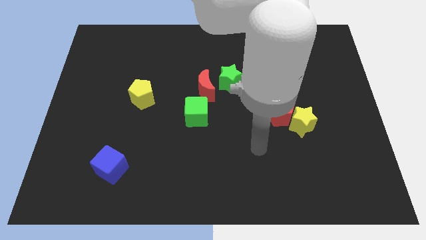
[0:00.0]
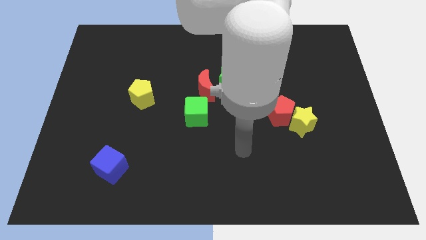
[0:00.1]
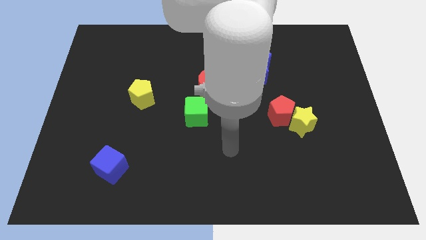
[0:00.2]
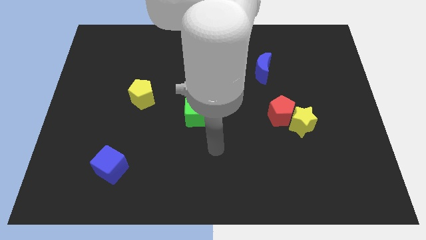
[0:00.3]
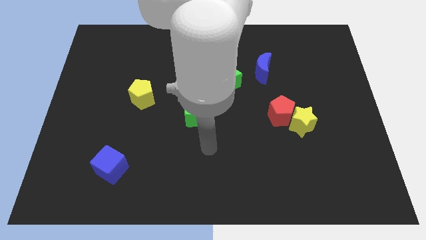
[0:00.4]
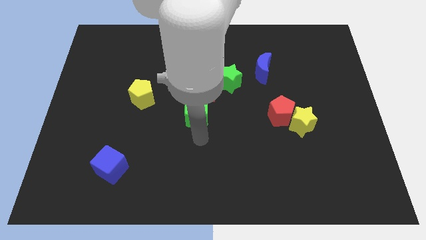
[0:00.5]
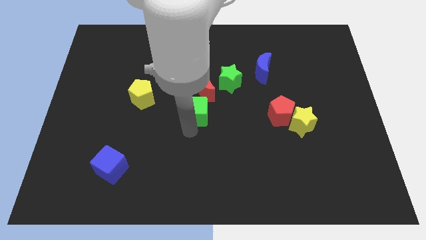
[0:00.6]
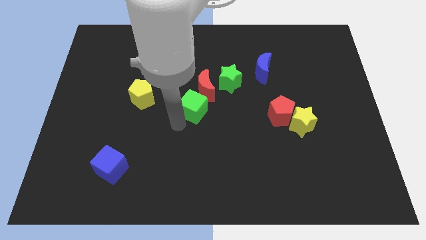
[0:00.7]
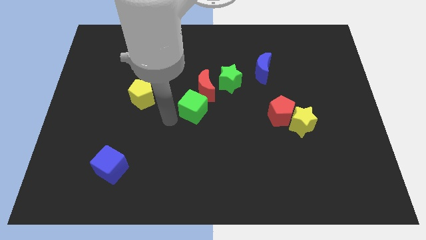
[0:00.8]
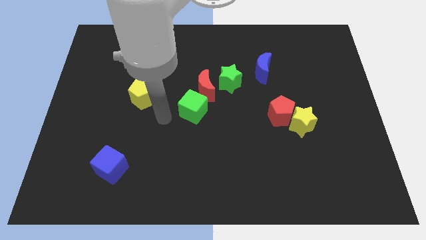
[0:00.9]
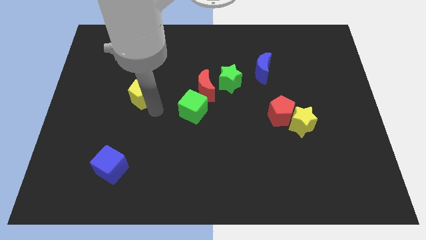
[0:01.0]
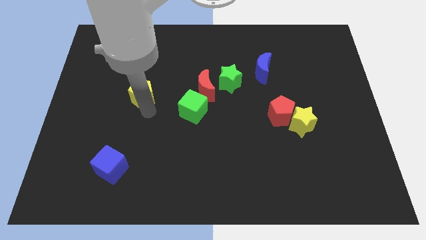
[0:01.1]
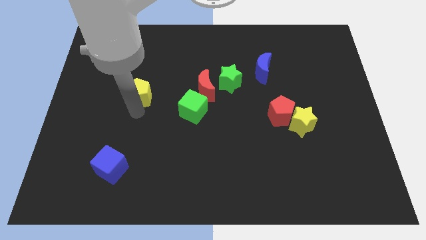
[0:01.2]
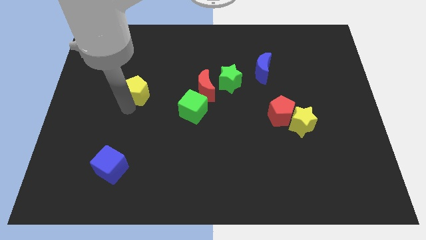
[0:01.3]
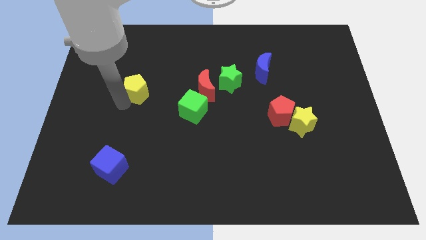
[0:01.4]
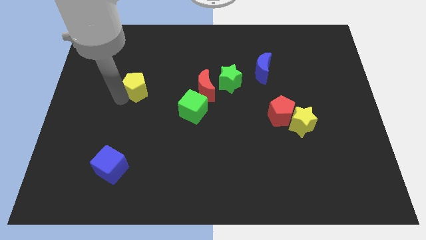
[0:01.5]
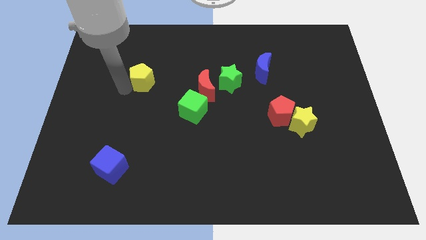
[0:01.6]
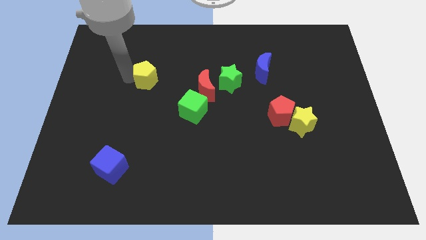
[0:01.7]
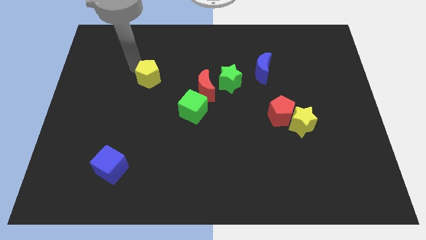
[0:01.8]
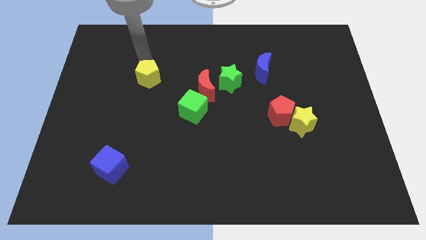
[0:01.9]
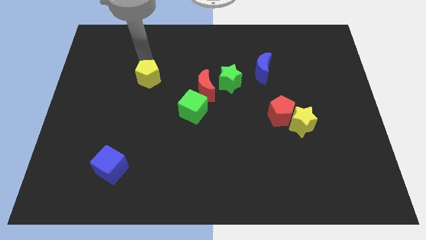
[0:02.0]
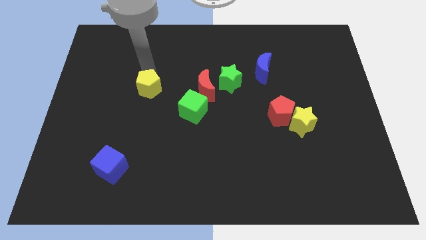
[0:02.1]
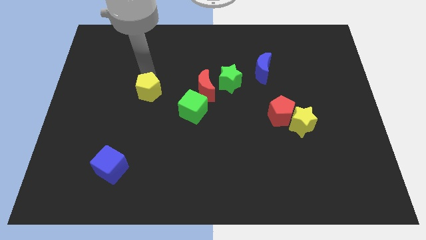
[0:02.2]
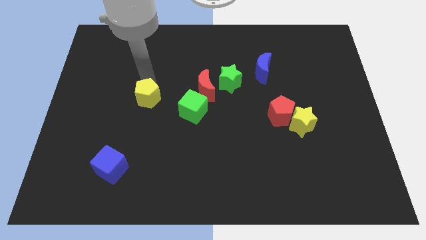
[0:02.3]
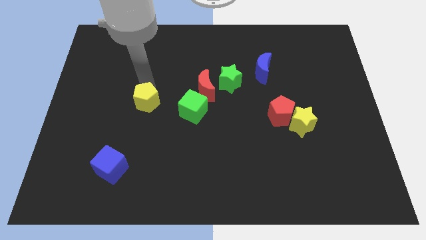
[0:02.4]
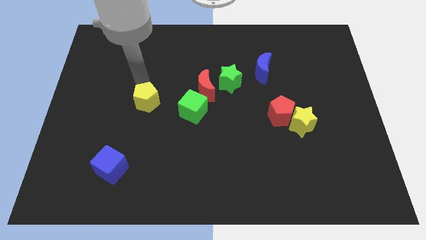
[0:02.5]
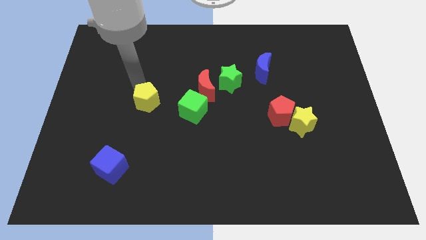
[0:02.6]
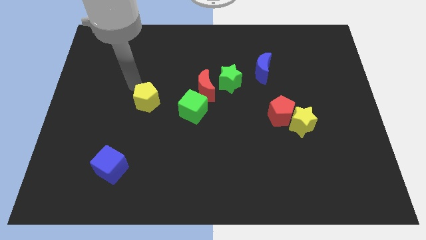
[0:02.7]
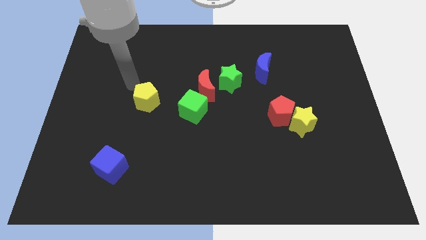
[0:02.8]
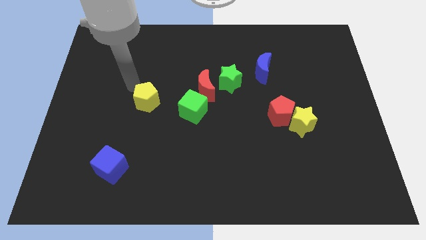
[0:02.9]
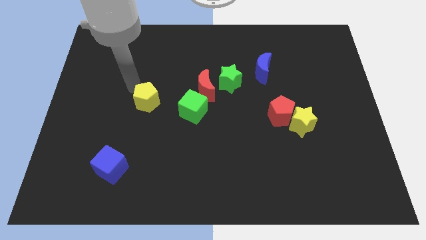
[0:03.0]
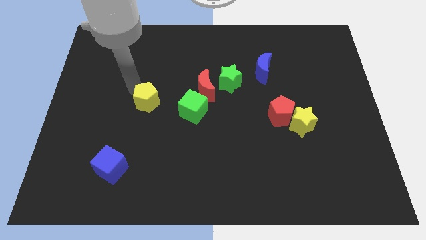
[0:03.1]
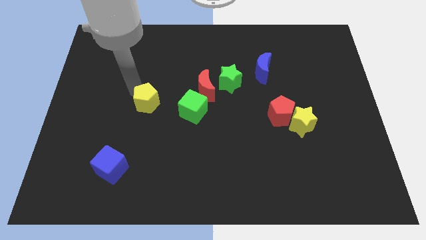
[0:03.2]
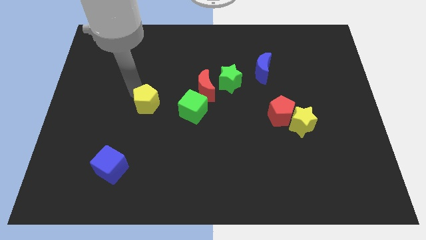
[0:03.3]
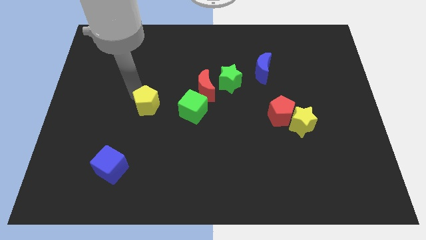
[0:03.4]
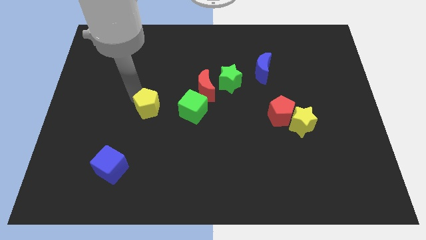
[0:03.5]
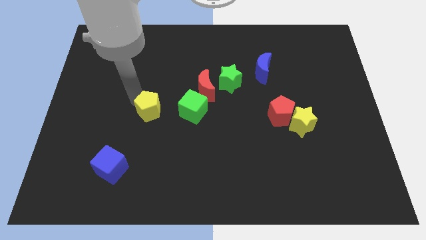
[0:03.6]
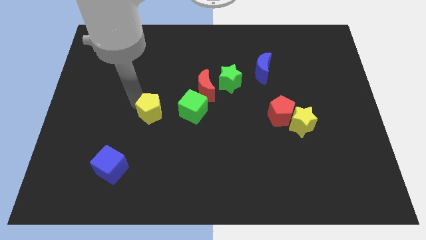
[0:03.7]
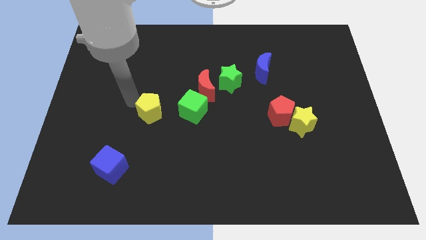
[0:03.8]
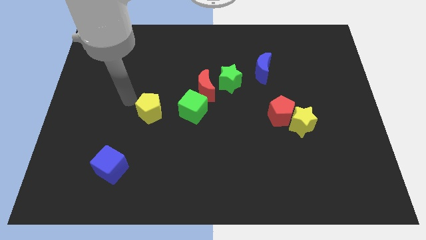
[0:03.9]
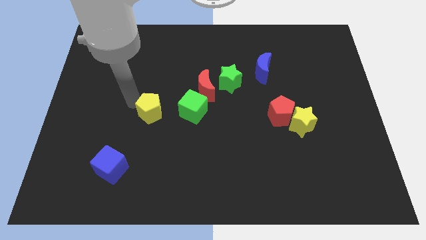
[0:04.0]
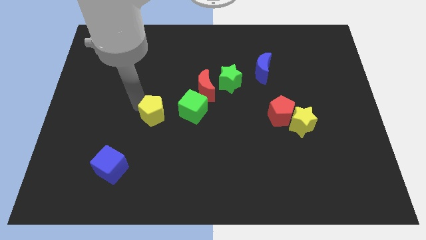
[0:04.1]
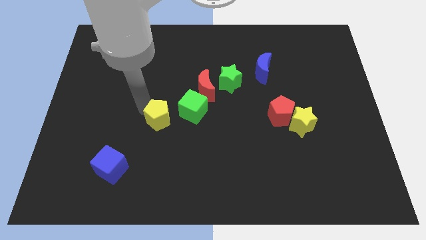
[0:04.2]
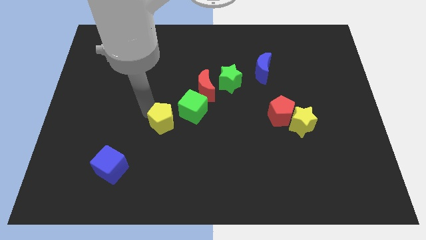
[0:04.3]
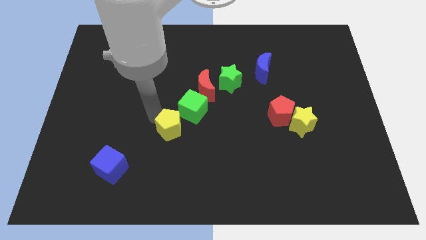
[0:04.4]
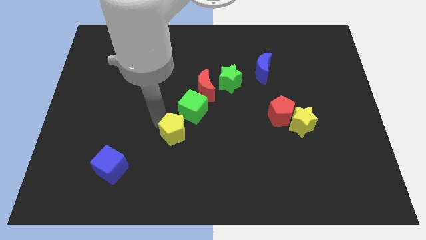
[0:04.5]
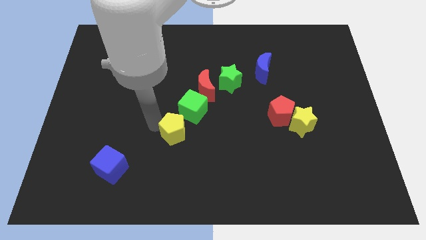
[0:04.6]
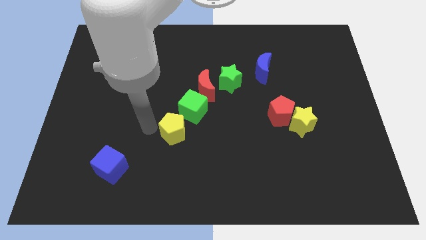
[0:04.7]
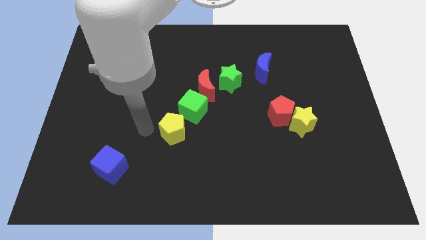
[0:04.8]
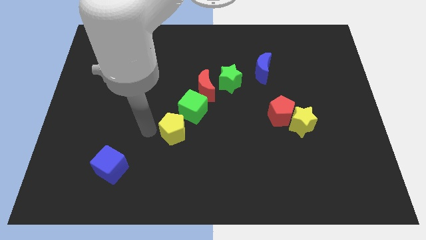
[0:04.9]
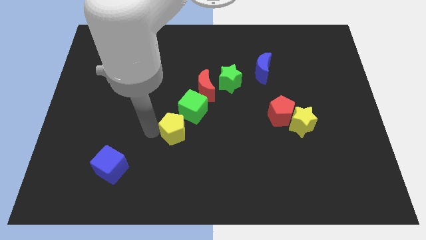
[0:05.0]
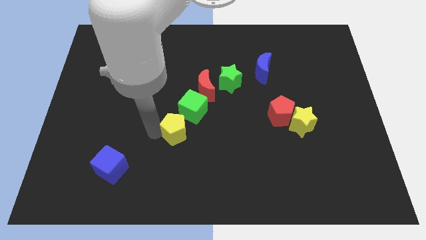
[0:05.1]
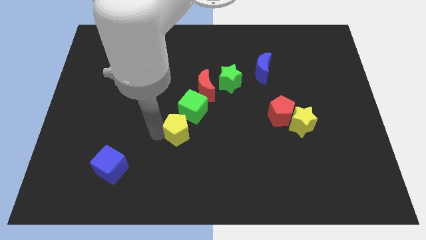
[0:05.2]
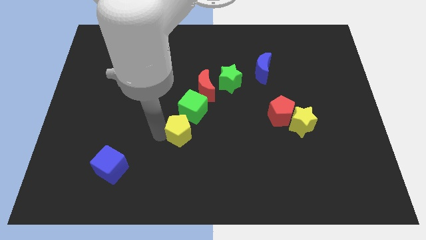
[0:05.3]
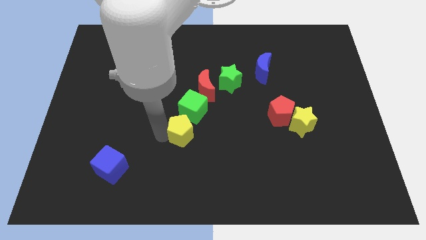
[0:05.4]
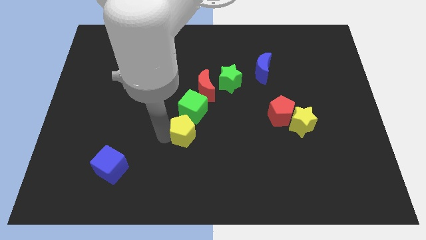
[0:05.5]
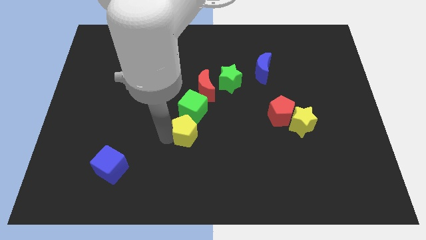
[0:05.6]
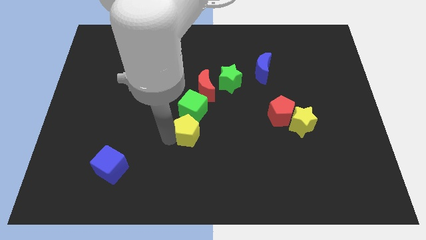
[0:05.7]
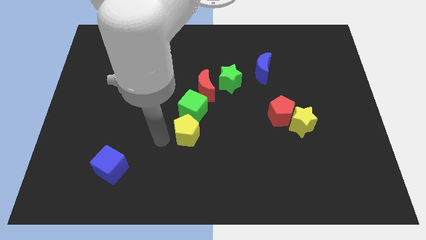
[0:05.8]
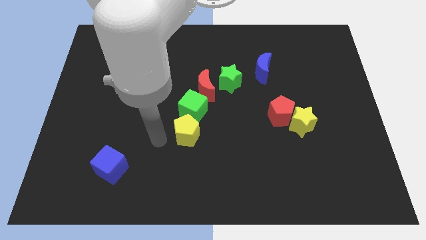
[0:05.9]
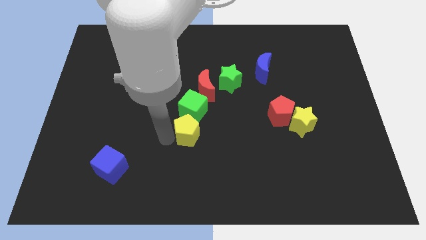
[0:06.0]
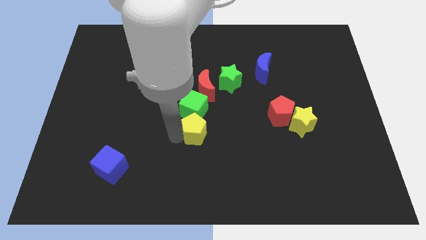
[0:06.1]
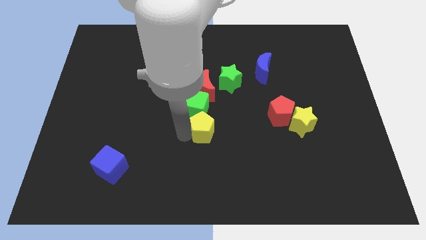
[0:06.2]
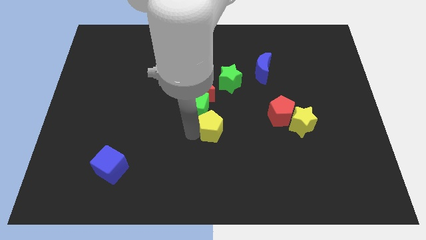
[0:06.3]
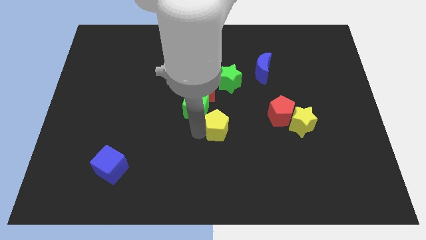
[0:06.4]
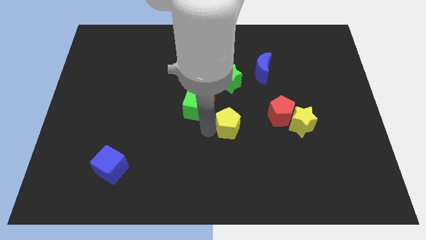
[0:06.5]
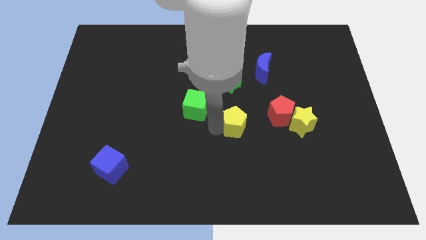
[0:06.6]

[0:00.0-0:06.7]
push the yellow pentagon just left of the yellow star
